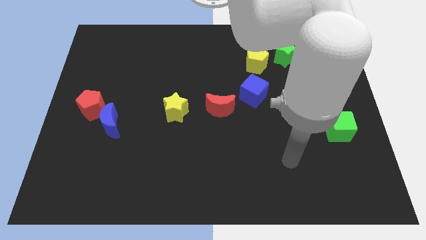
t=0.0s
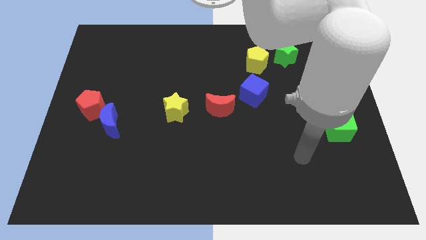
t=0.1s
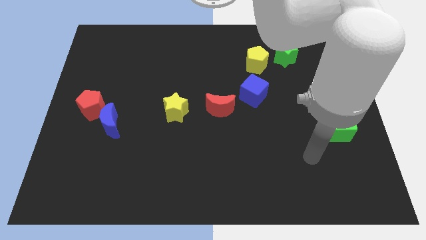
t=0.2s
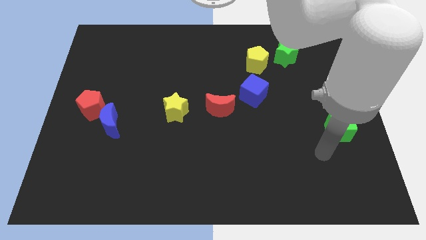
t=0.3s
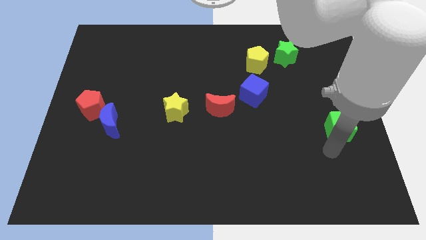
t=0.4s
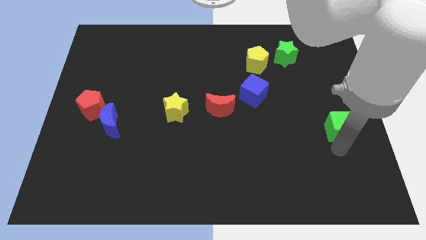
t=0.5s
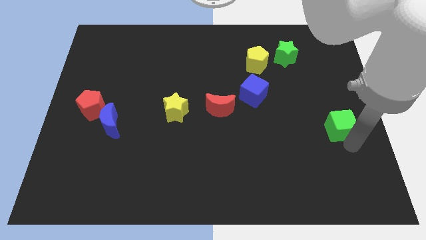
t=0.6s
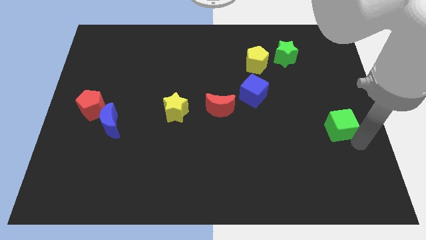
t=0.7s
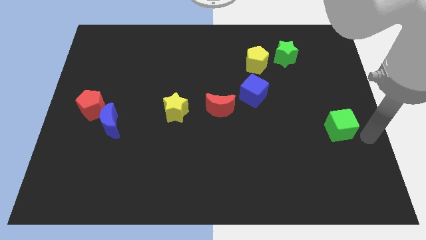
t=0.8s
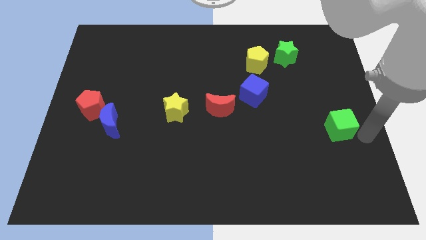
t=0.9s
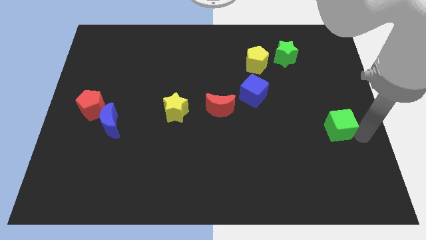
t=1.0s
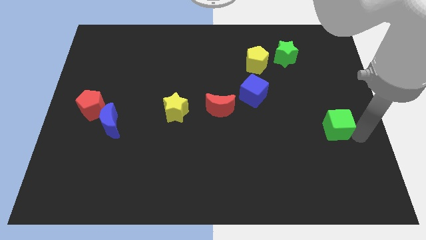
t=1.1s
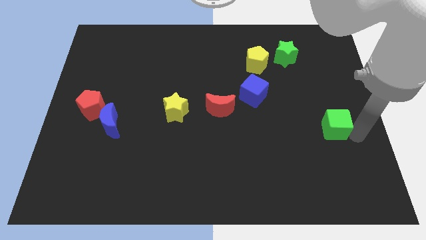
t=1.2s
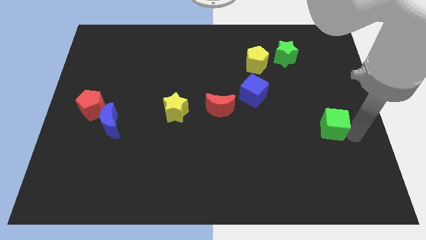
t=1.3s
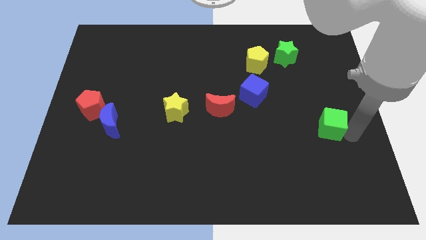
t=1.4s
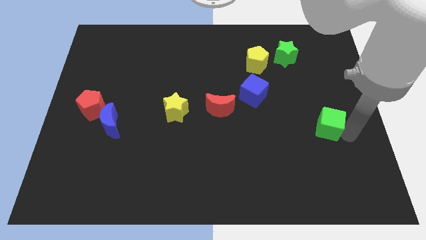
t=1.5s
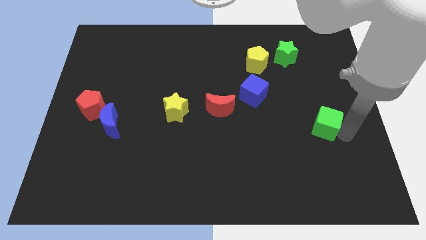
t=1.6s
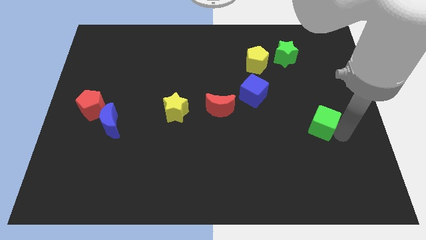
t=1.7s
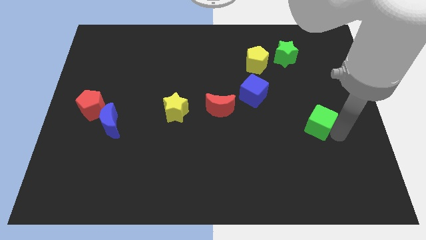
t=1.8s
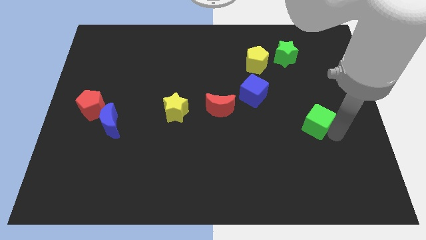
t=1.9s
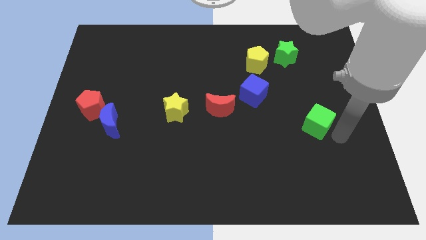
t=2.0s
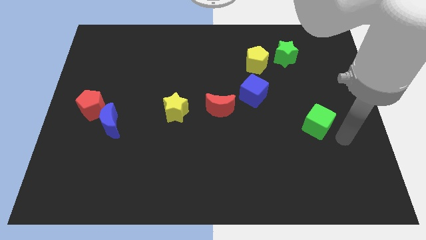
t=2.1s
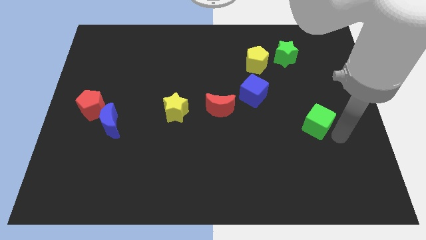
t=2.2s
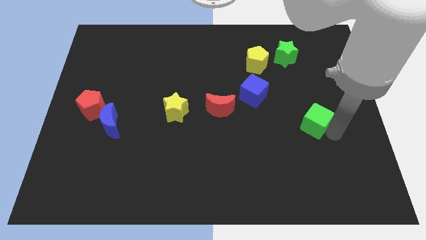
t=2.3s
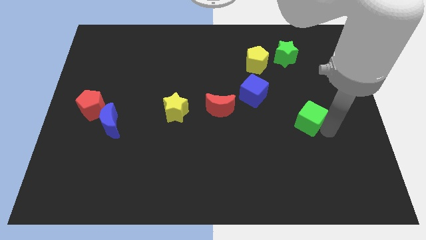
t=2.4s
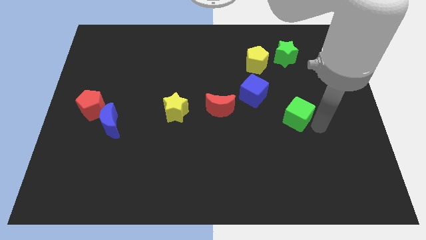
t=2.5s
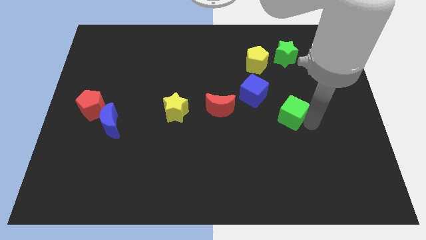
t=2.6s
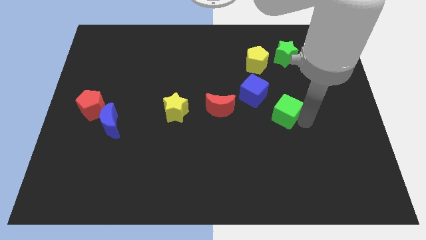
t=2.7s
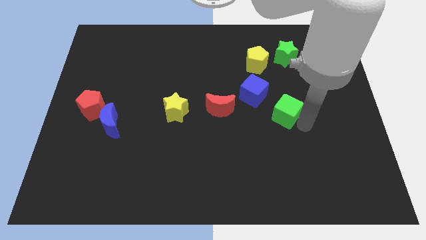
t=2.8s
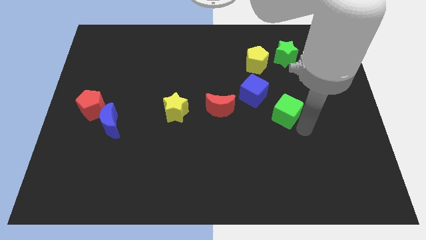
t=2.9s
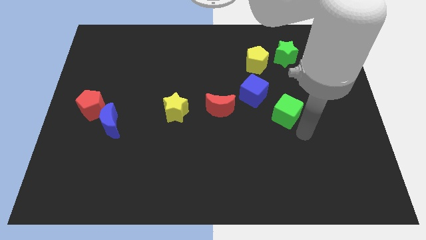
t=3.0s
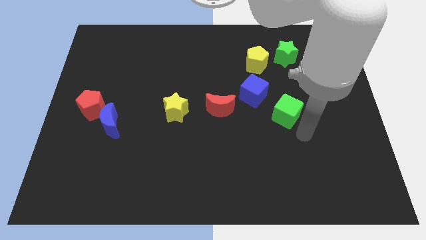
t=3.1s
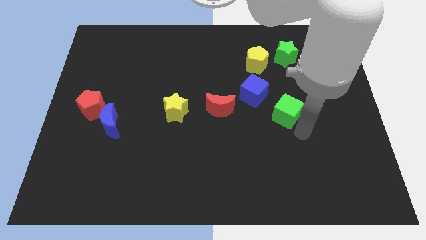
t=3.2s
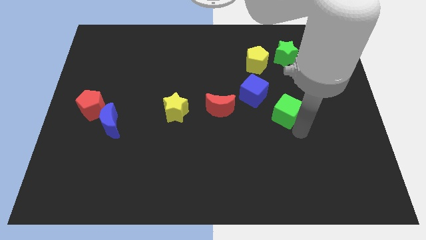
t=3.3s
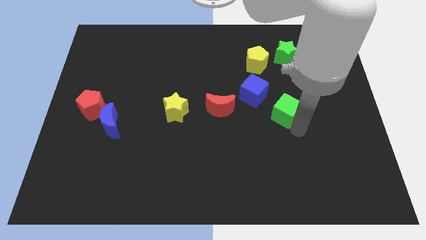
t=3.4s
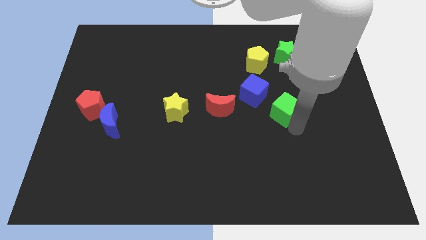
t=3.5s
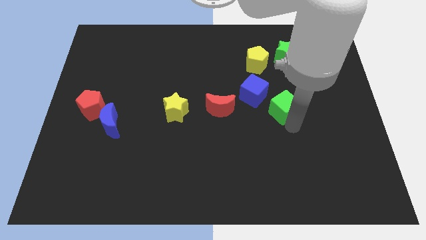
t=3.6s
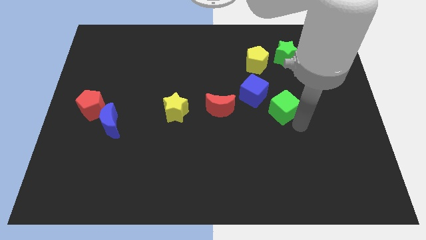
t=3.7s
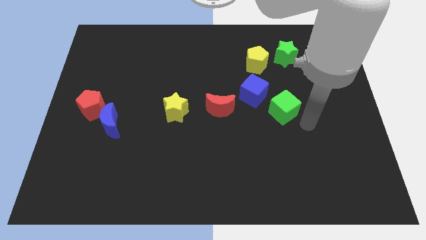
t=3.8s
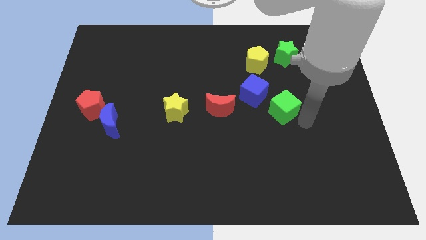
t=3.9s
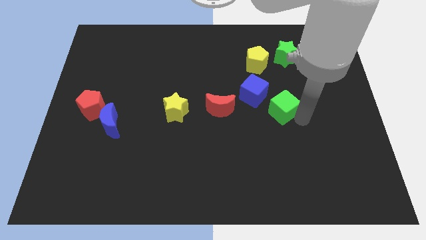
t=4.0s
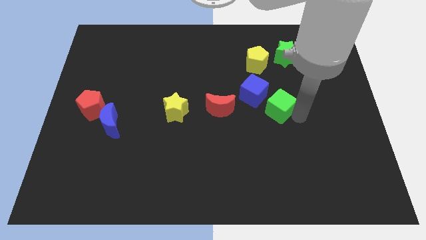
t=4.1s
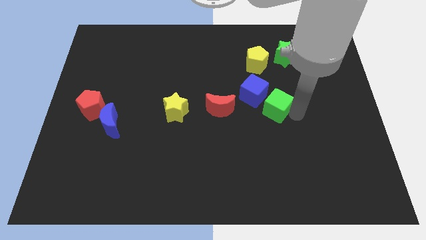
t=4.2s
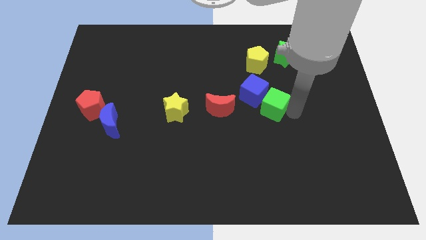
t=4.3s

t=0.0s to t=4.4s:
put the green cube towards the blue cube

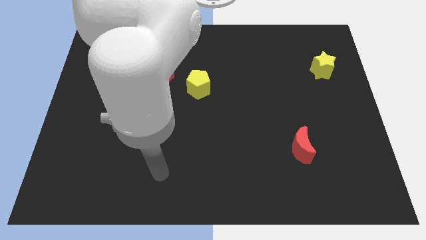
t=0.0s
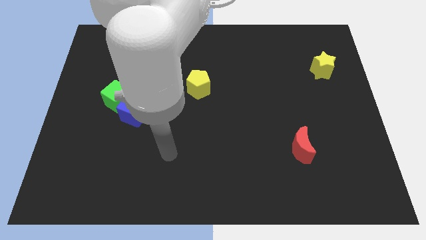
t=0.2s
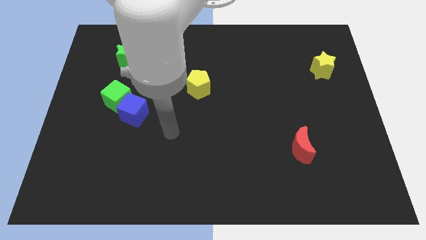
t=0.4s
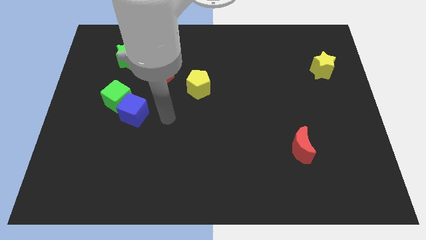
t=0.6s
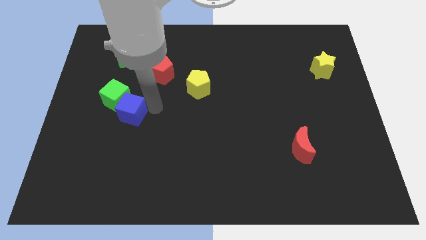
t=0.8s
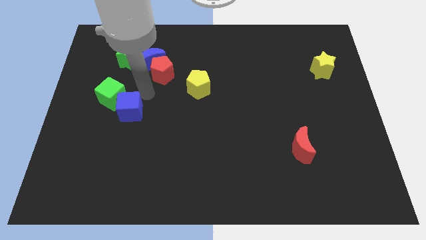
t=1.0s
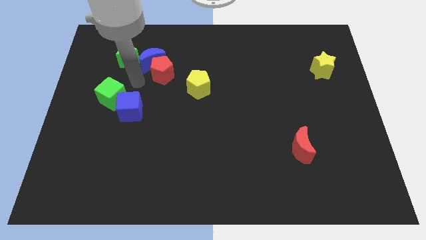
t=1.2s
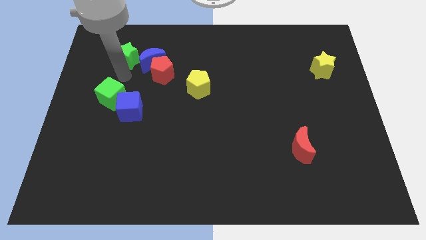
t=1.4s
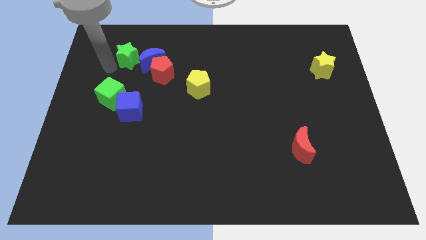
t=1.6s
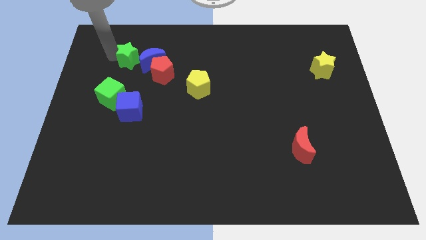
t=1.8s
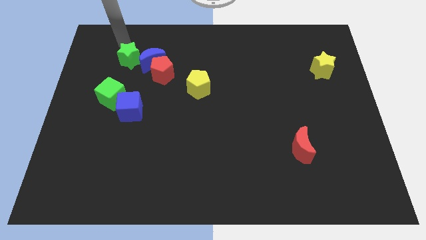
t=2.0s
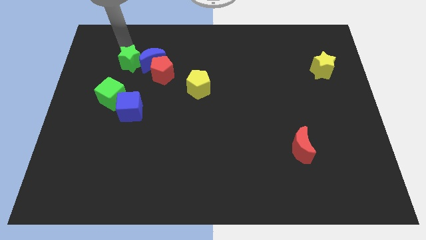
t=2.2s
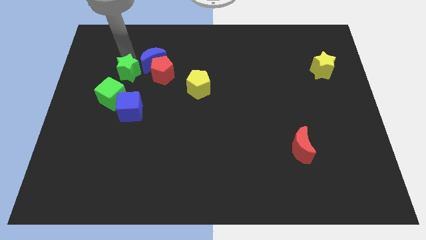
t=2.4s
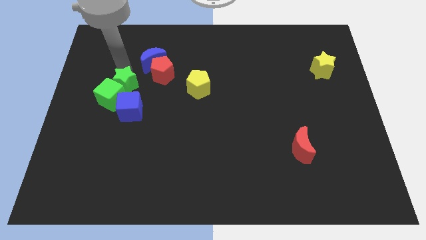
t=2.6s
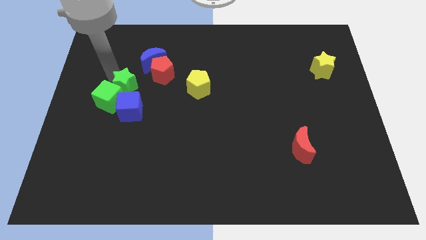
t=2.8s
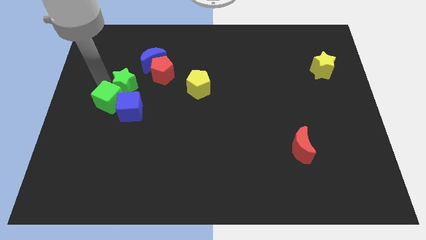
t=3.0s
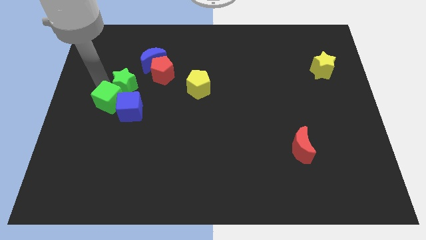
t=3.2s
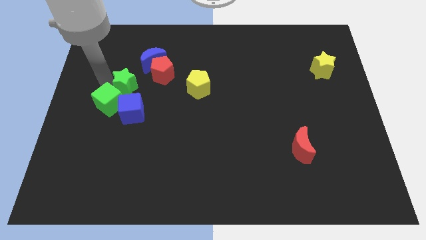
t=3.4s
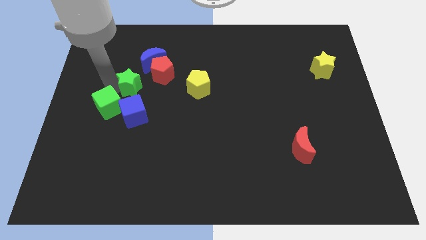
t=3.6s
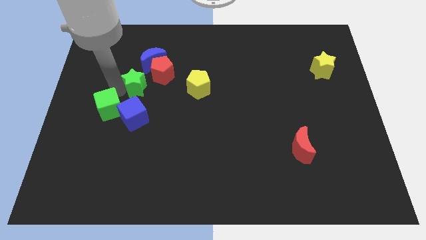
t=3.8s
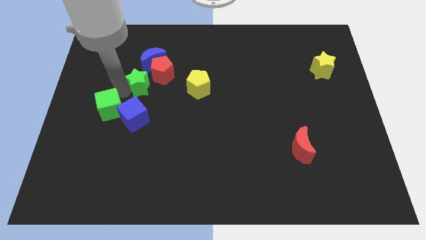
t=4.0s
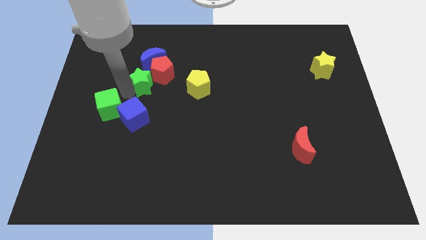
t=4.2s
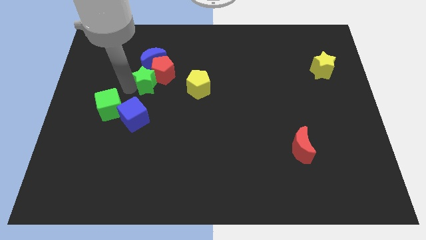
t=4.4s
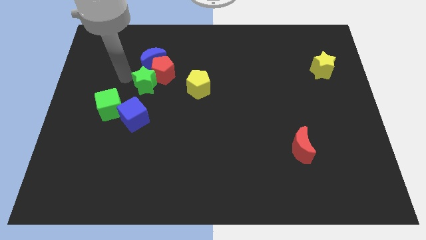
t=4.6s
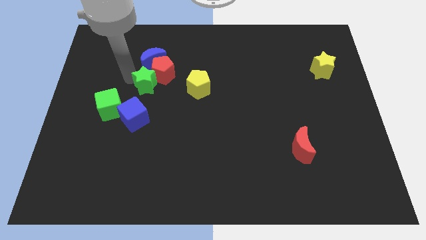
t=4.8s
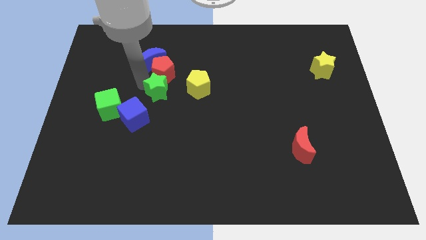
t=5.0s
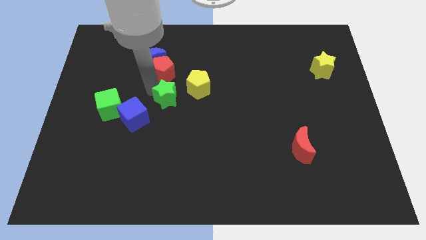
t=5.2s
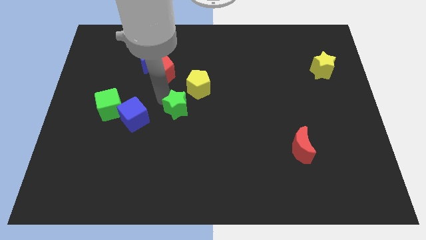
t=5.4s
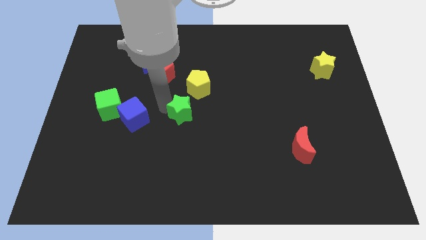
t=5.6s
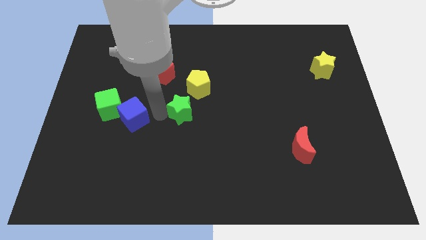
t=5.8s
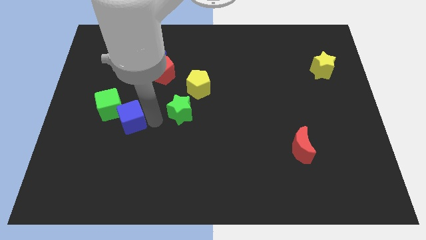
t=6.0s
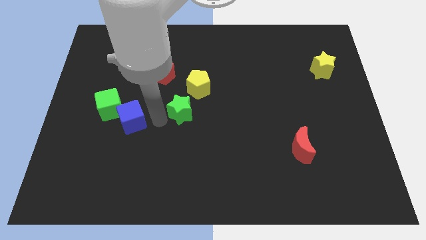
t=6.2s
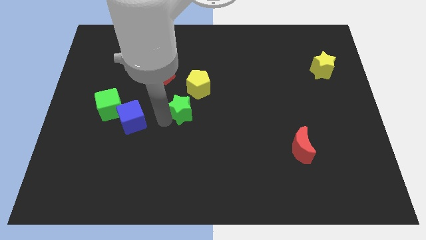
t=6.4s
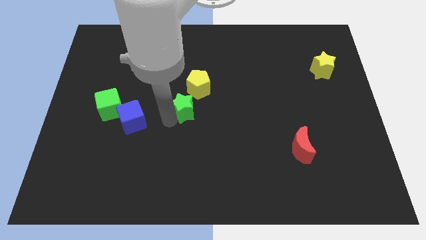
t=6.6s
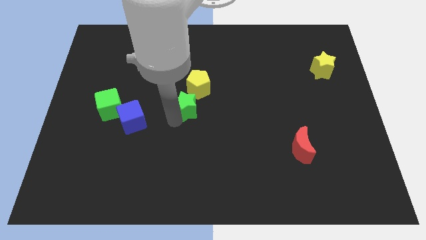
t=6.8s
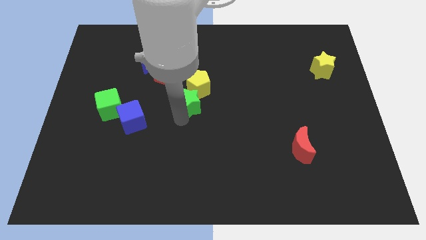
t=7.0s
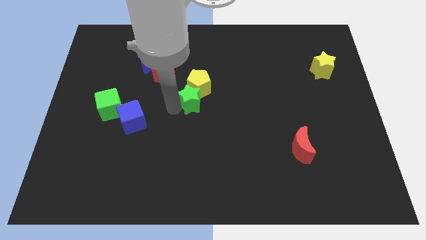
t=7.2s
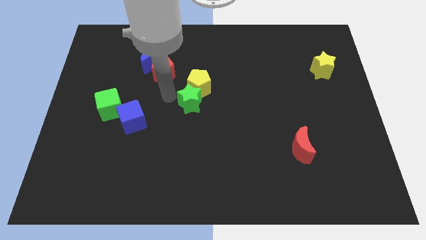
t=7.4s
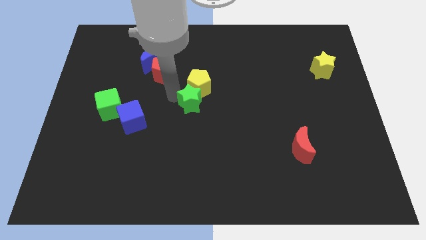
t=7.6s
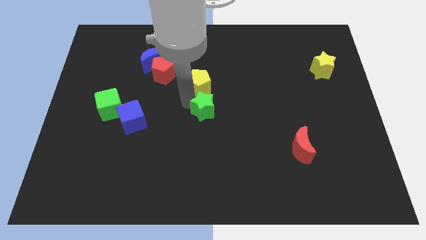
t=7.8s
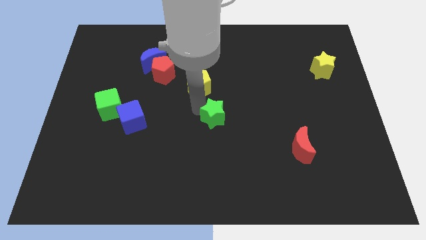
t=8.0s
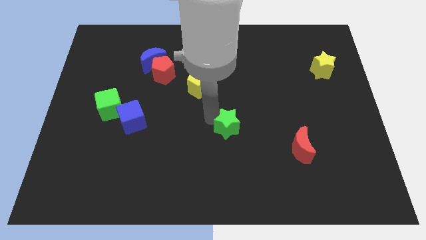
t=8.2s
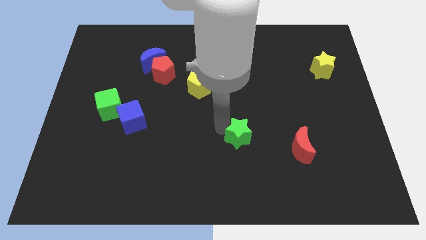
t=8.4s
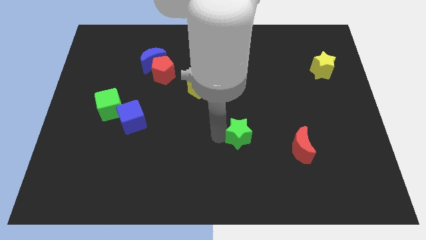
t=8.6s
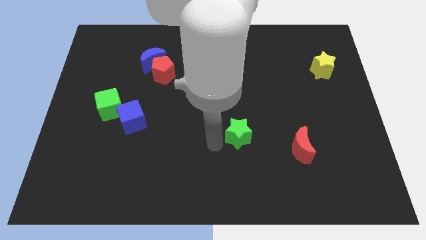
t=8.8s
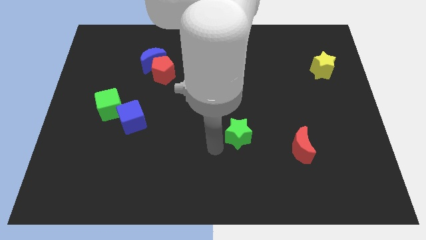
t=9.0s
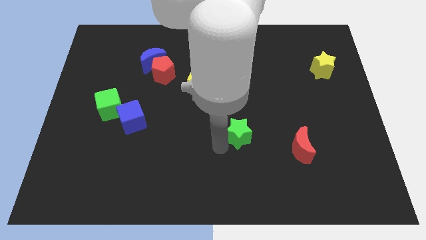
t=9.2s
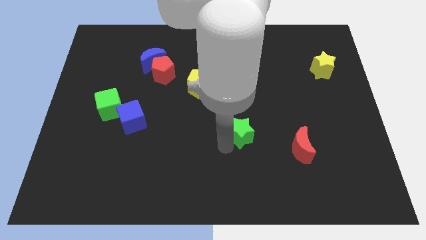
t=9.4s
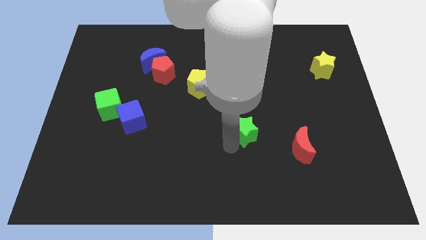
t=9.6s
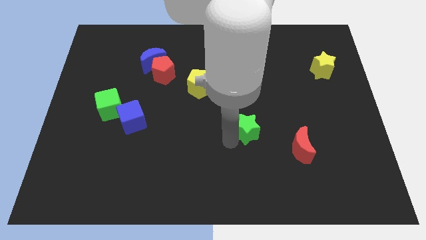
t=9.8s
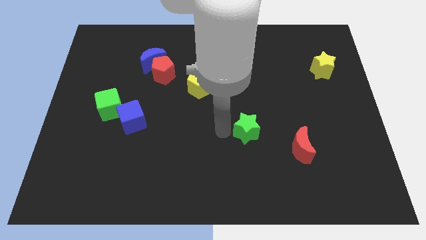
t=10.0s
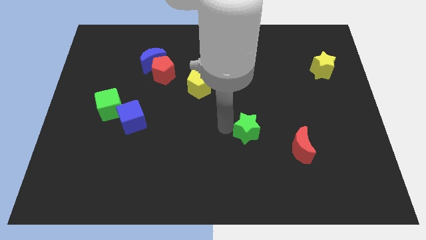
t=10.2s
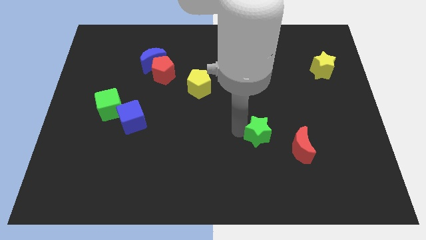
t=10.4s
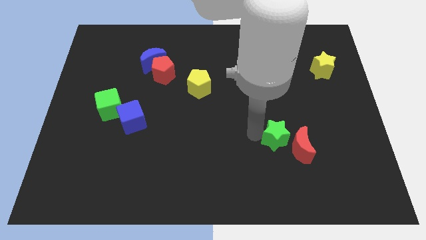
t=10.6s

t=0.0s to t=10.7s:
slide the green star to the red moon
